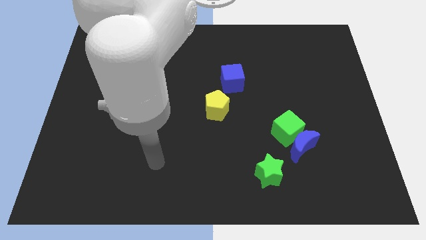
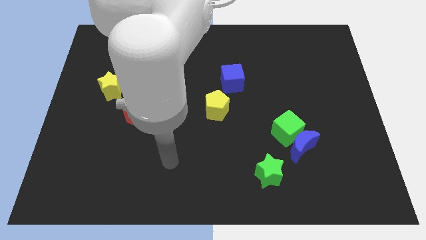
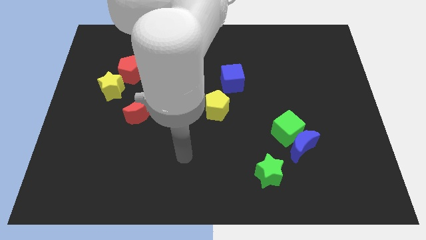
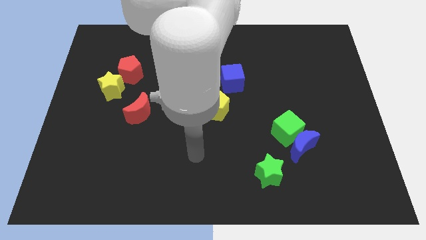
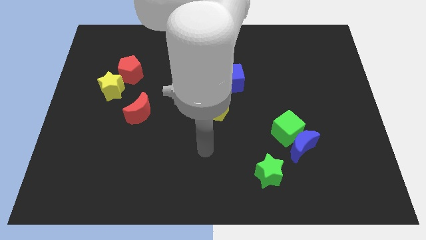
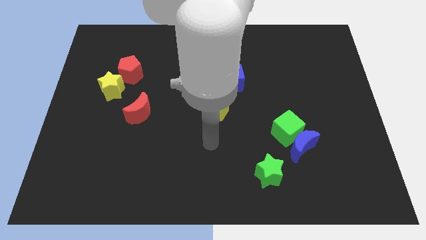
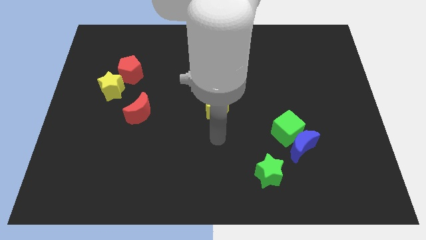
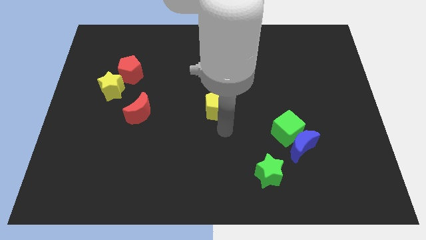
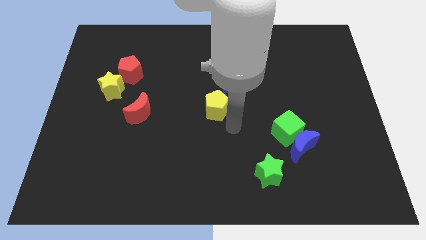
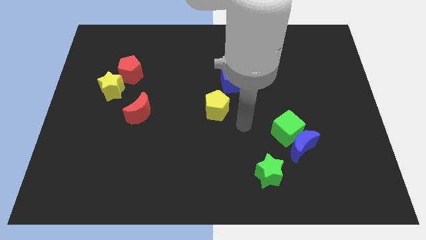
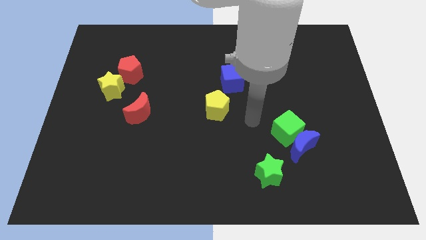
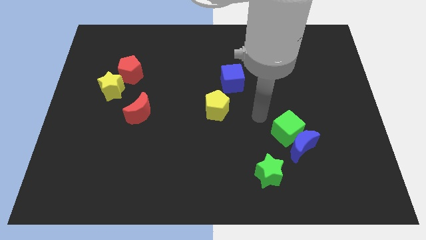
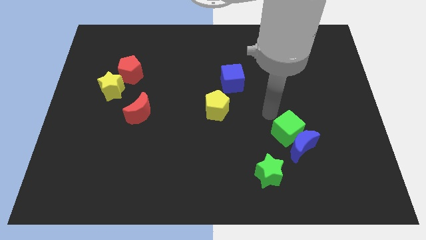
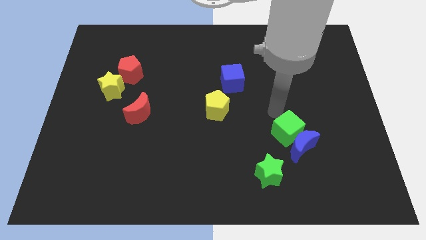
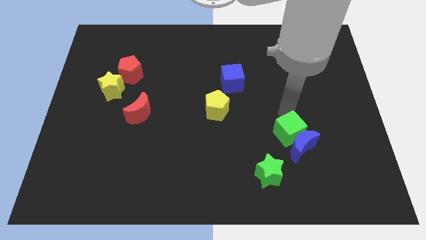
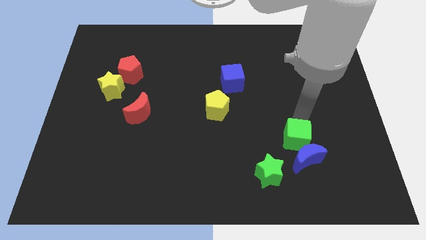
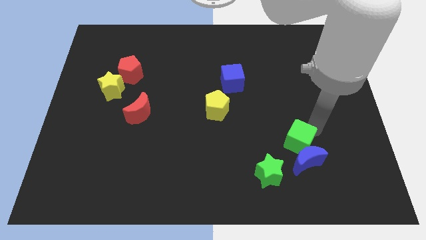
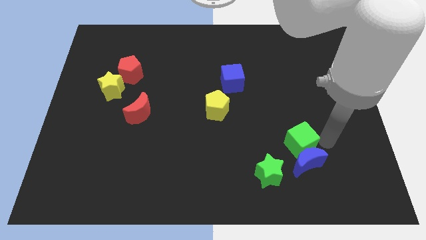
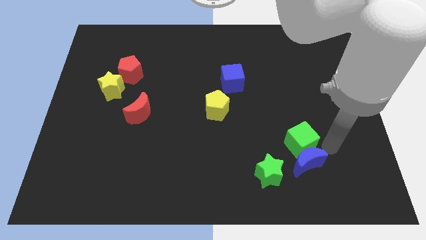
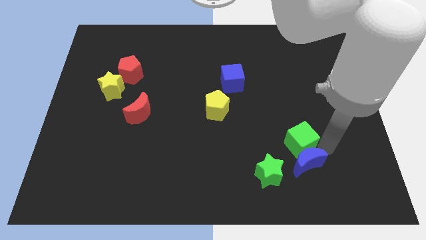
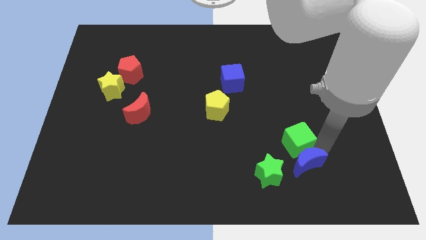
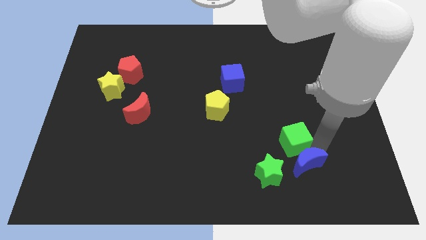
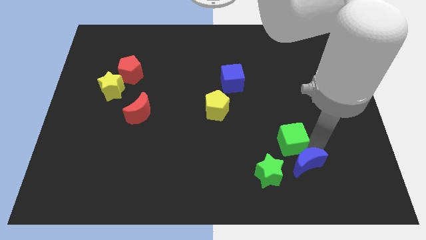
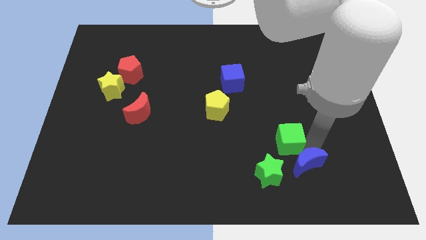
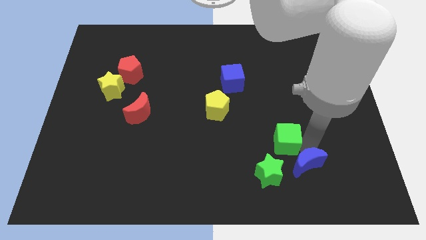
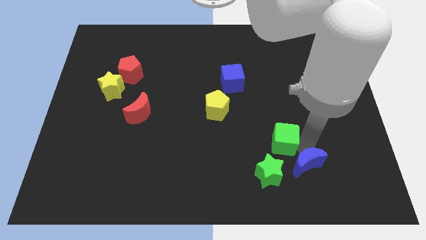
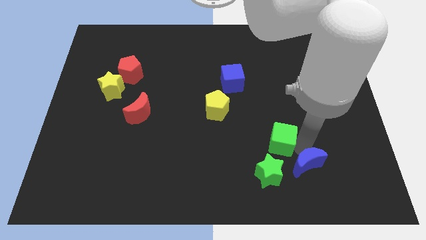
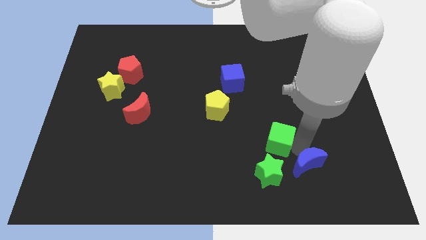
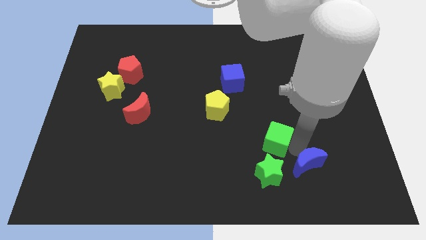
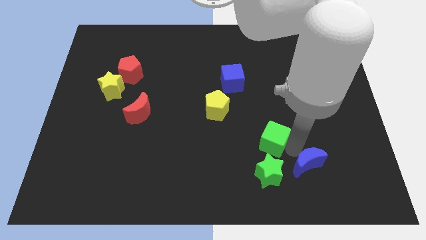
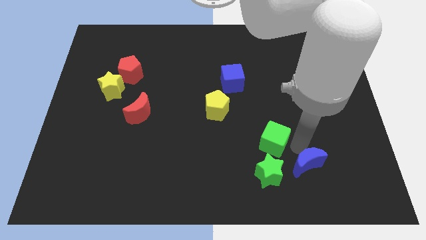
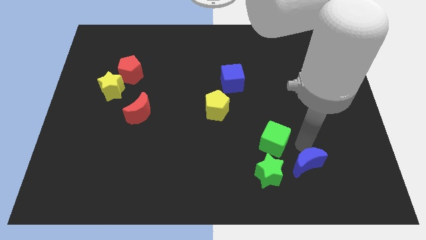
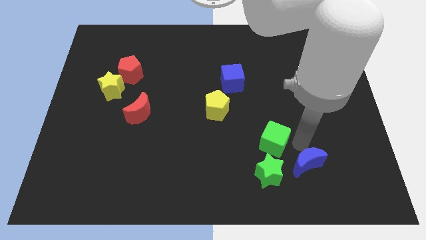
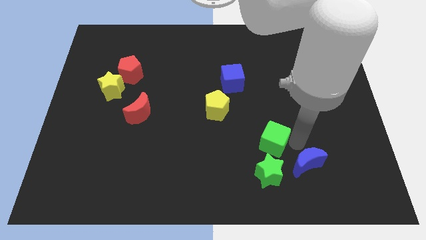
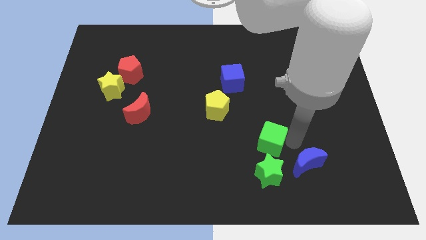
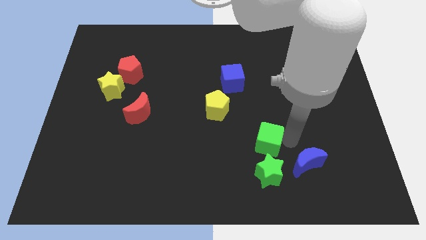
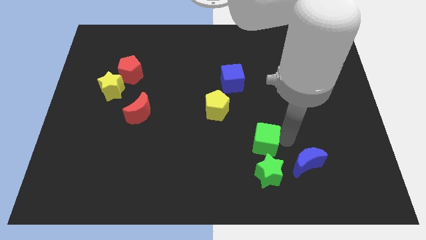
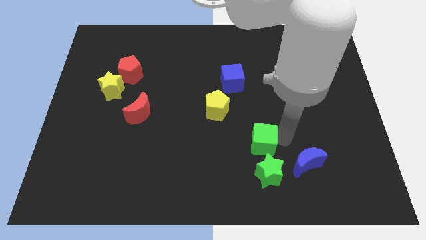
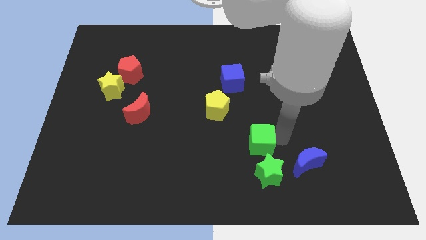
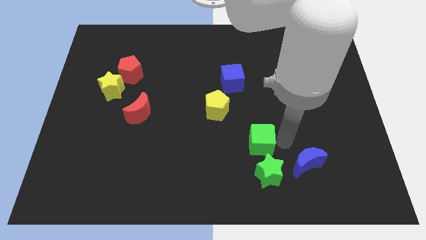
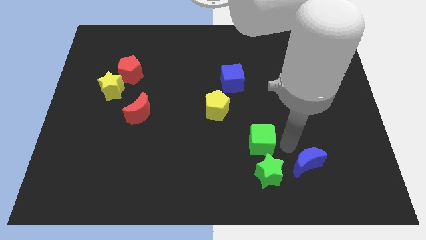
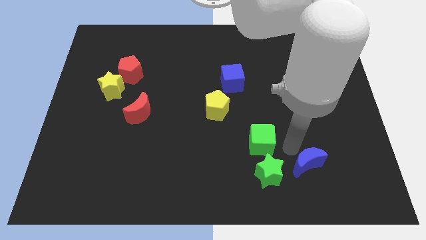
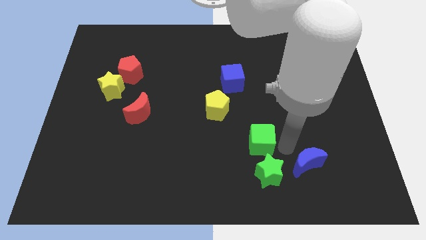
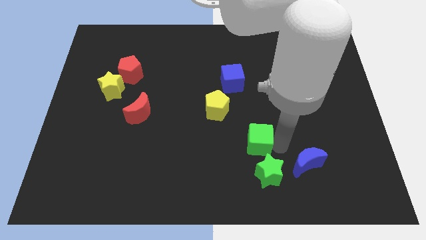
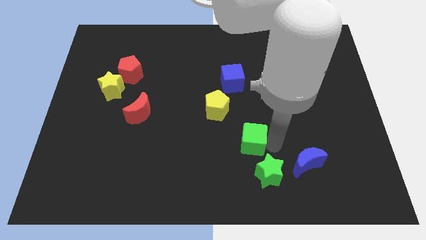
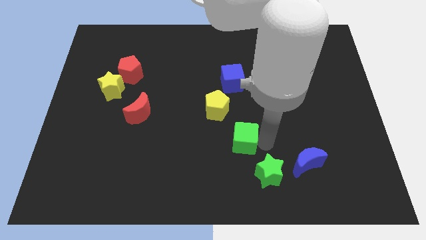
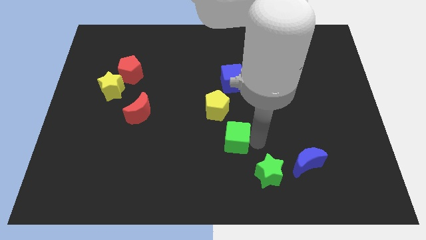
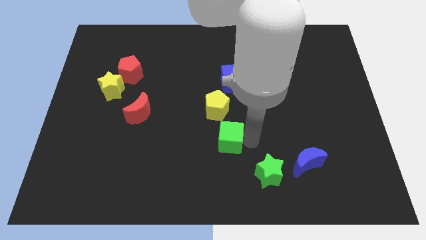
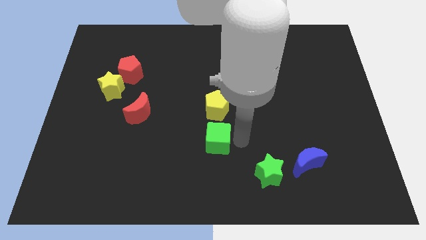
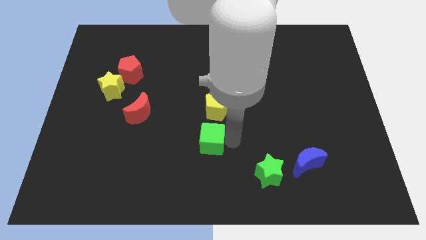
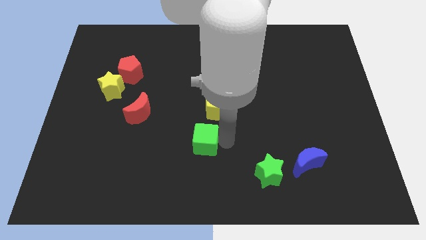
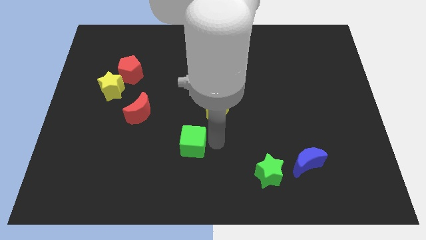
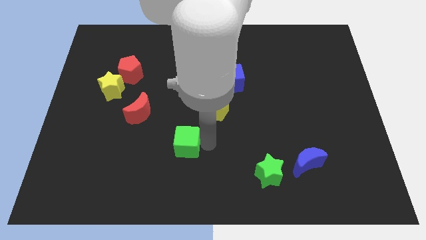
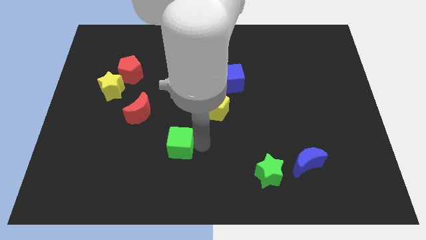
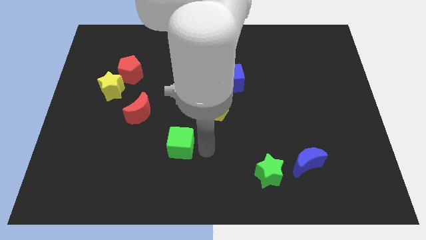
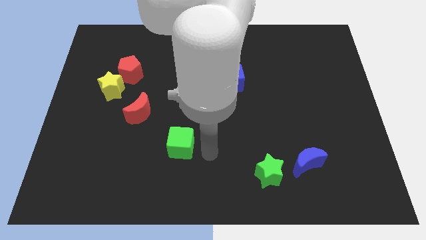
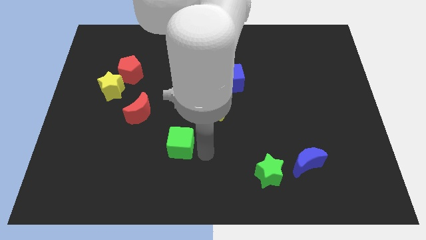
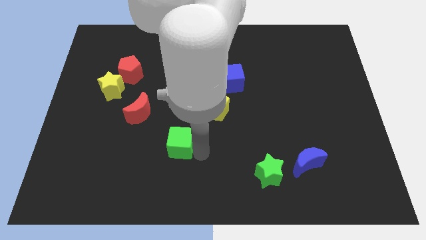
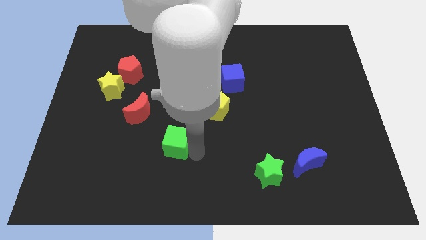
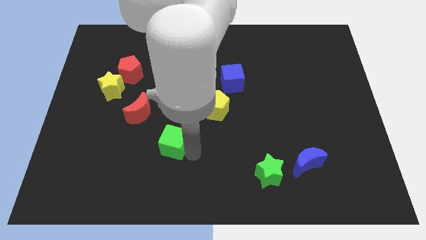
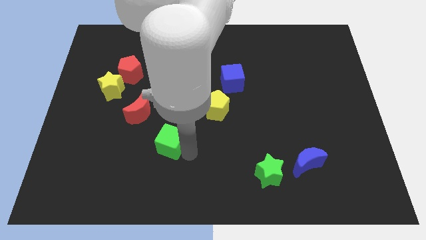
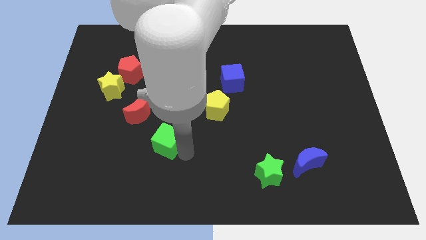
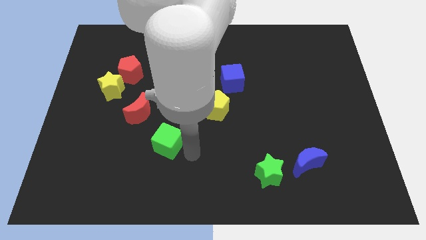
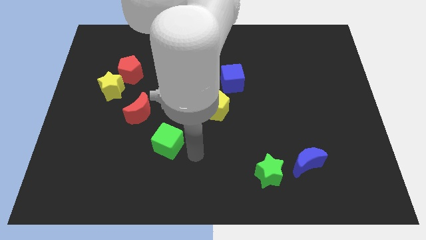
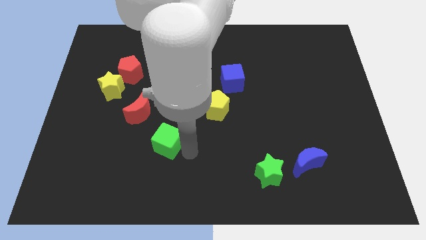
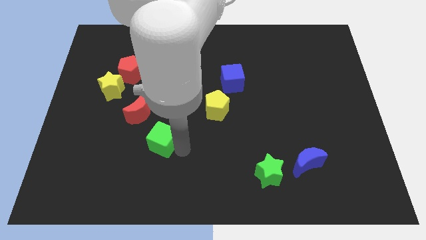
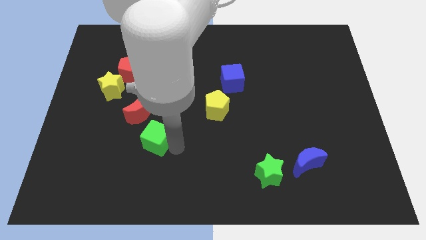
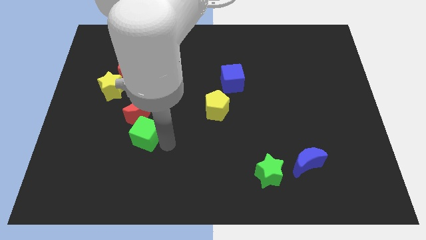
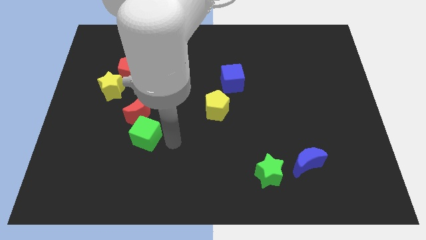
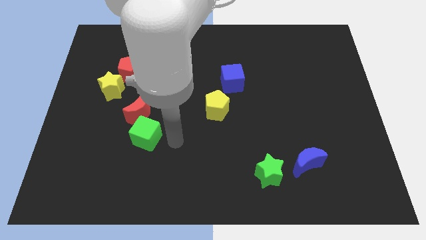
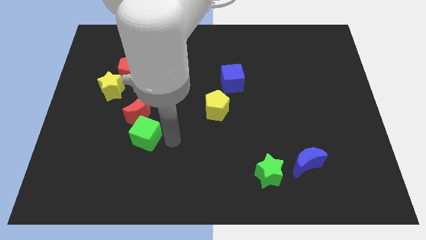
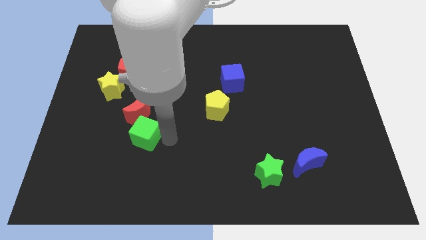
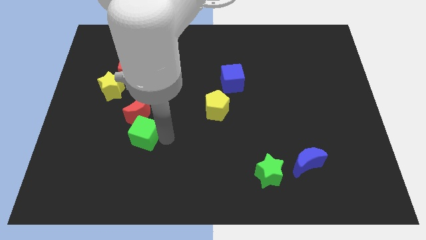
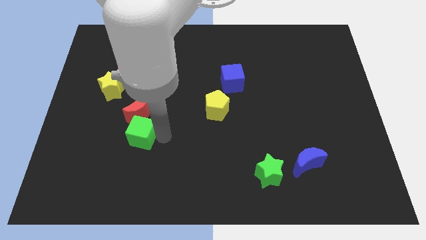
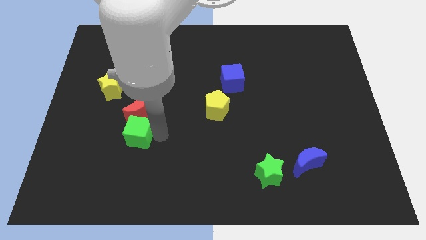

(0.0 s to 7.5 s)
slide the green cube to the bottom left side of the red moon
